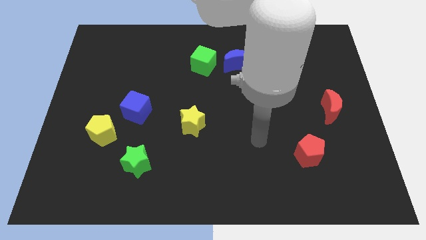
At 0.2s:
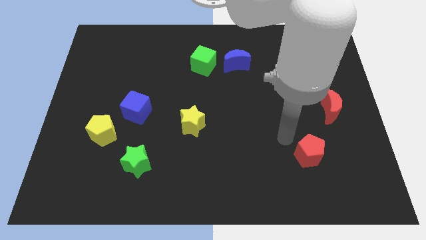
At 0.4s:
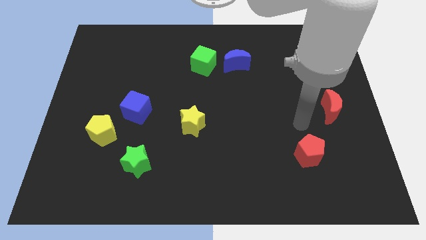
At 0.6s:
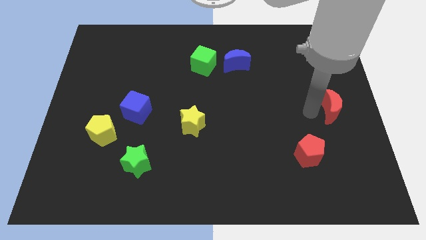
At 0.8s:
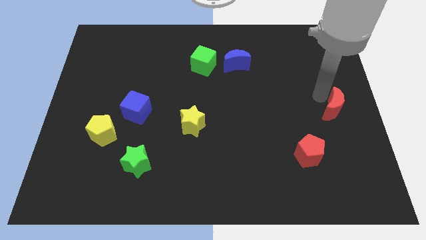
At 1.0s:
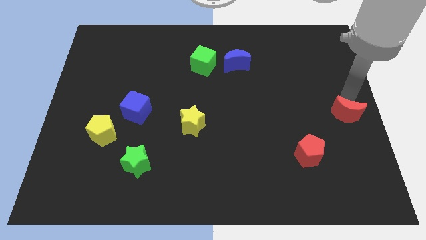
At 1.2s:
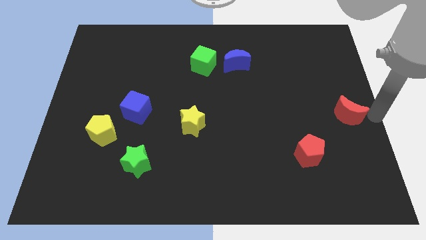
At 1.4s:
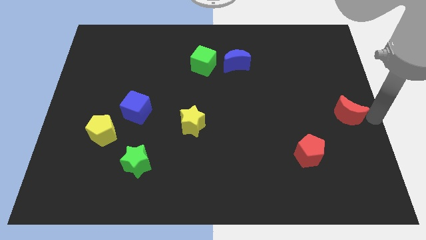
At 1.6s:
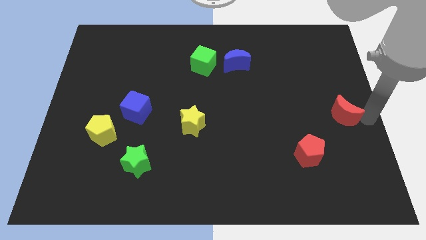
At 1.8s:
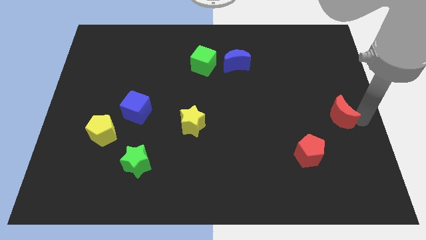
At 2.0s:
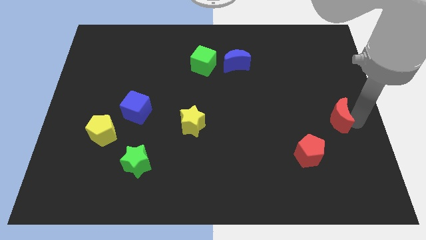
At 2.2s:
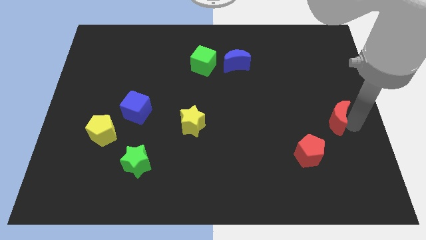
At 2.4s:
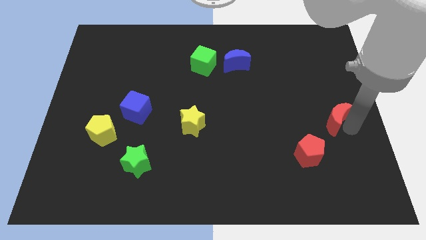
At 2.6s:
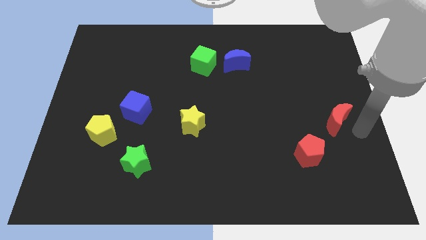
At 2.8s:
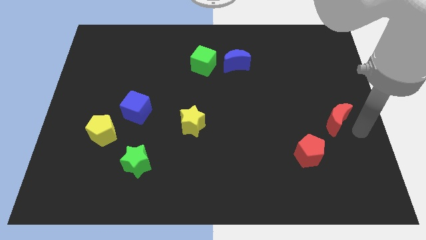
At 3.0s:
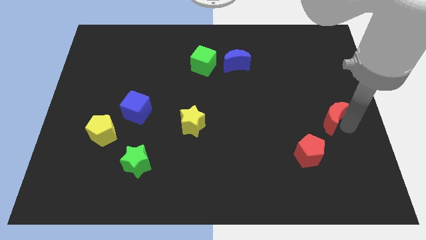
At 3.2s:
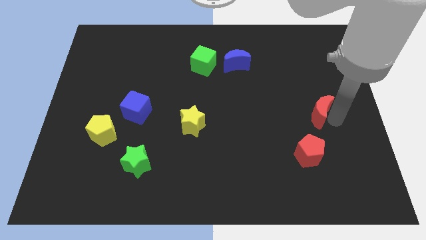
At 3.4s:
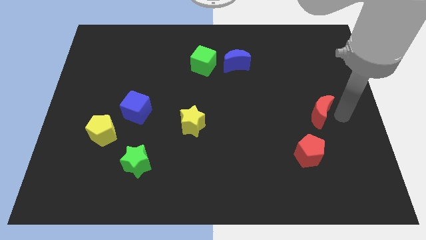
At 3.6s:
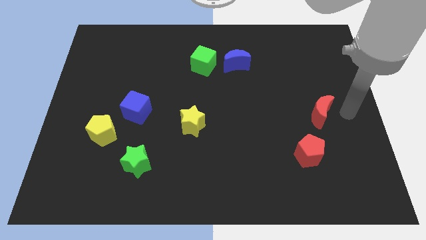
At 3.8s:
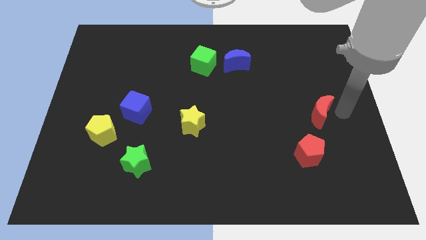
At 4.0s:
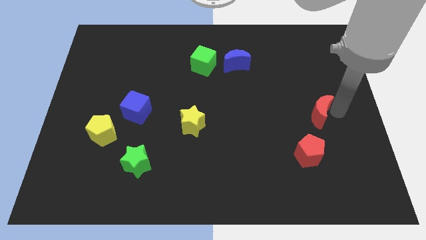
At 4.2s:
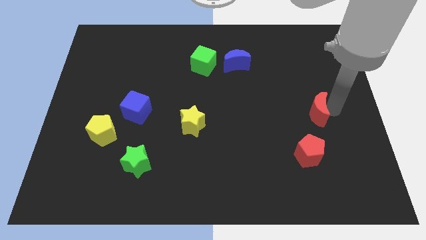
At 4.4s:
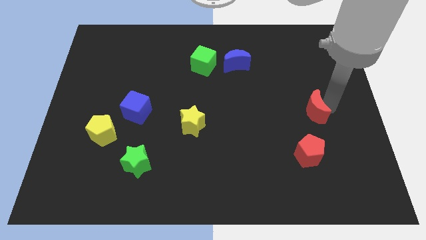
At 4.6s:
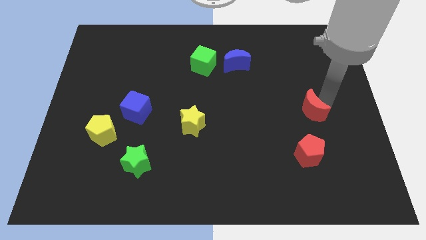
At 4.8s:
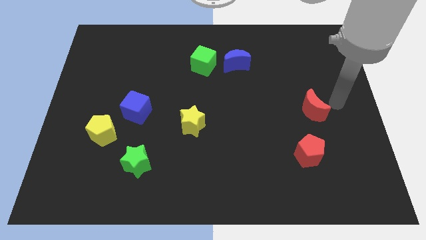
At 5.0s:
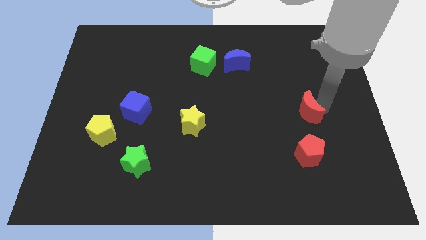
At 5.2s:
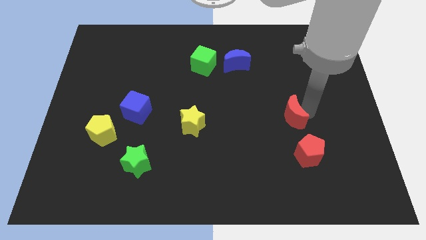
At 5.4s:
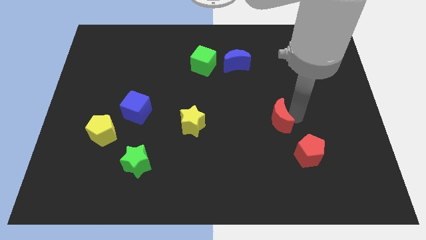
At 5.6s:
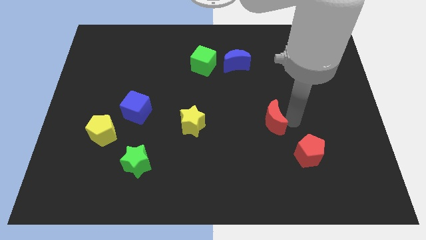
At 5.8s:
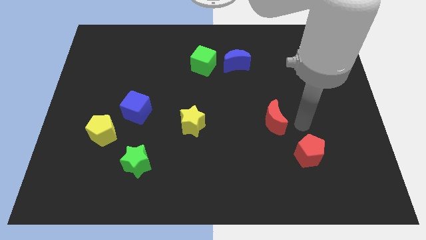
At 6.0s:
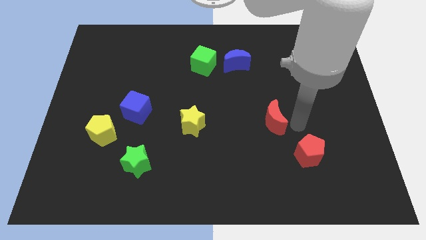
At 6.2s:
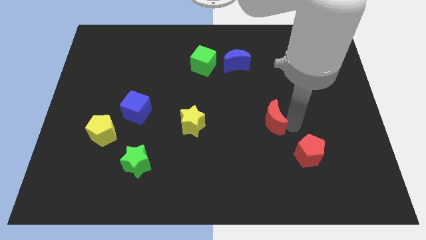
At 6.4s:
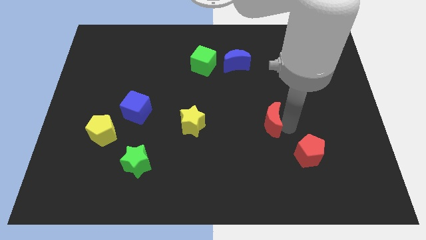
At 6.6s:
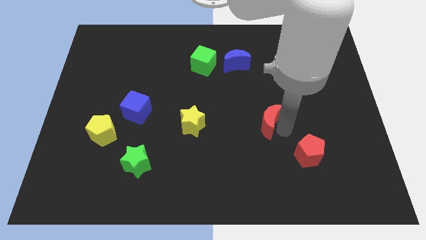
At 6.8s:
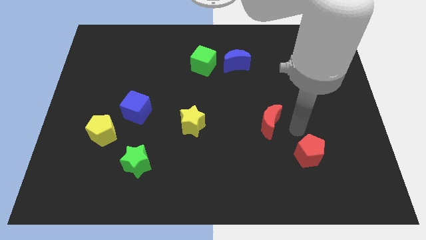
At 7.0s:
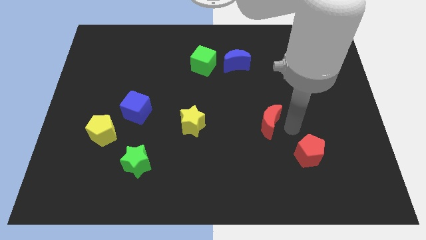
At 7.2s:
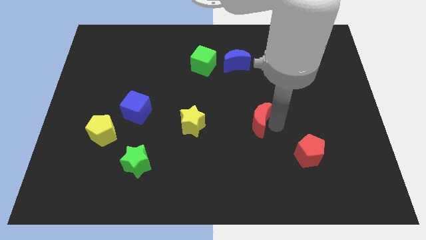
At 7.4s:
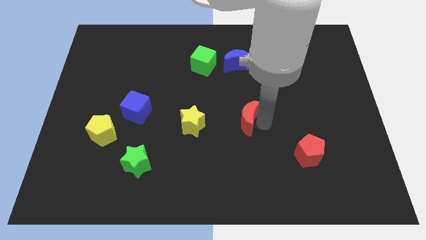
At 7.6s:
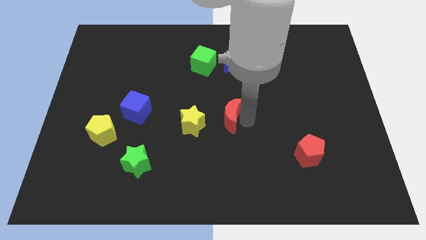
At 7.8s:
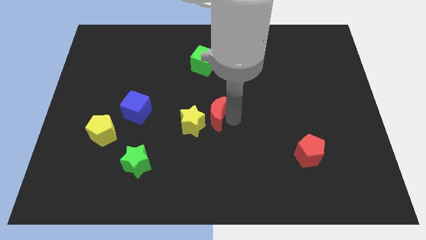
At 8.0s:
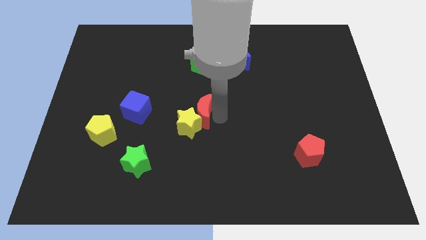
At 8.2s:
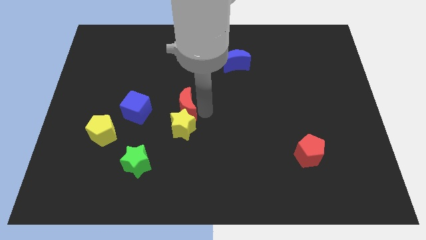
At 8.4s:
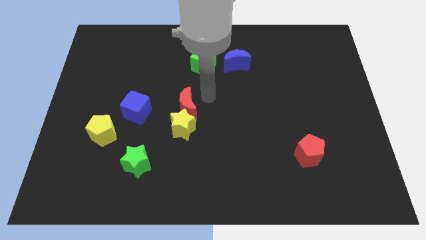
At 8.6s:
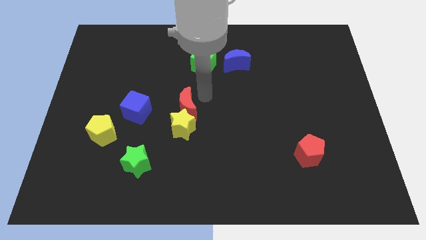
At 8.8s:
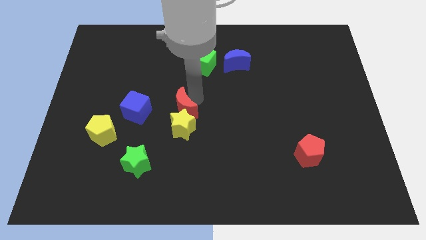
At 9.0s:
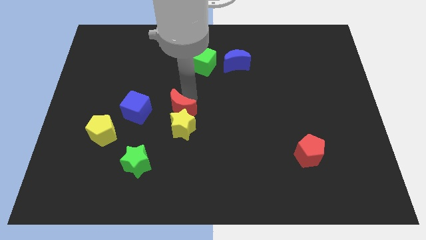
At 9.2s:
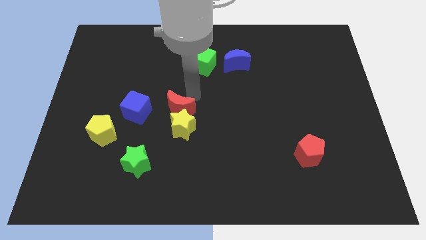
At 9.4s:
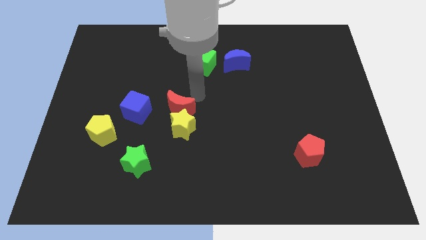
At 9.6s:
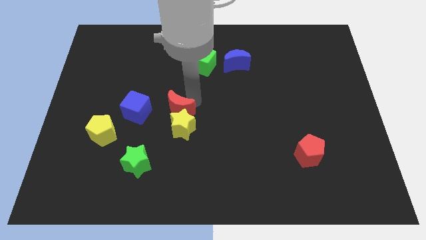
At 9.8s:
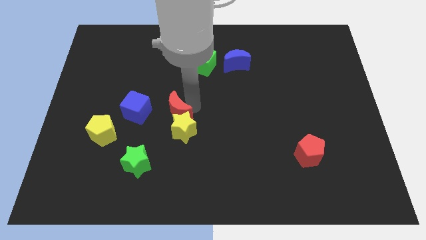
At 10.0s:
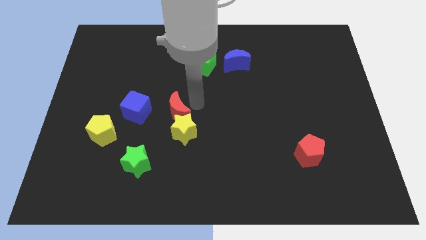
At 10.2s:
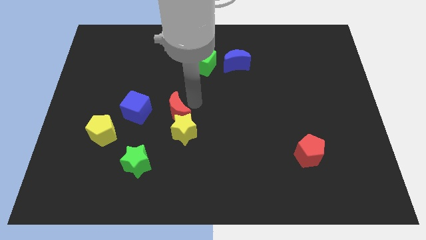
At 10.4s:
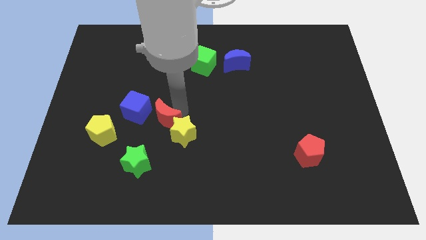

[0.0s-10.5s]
move the red moon to the right of the yellow pentagon

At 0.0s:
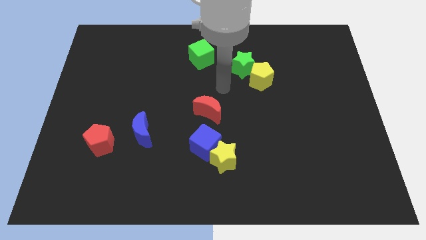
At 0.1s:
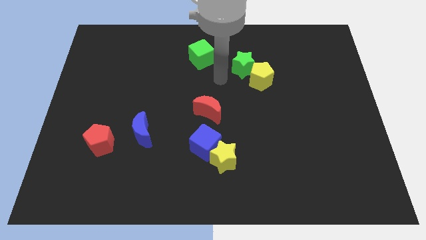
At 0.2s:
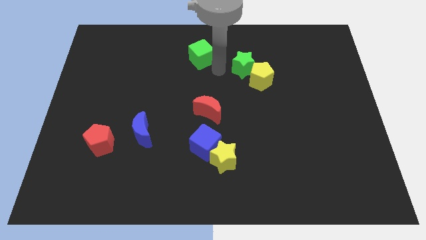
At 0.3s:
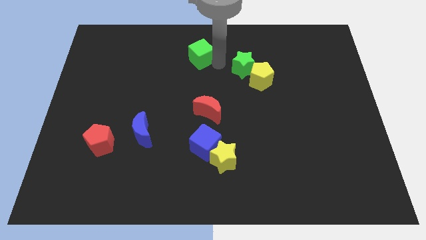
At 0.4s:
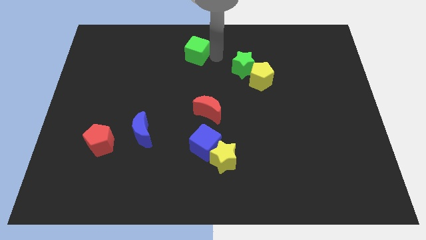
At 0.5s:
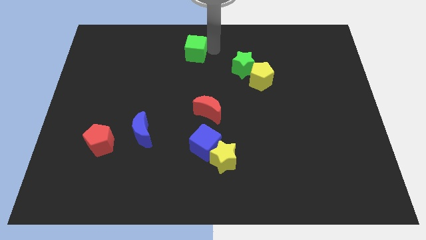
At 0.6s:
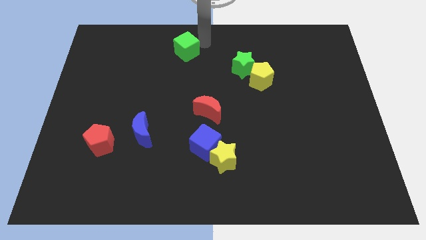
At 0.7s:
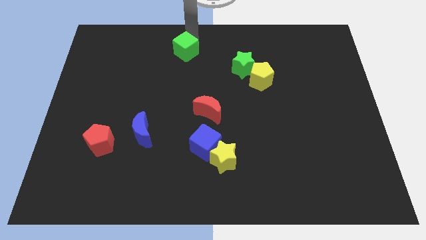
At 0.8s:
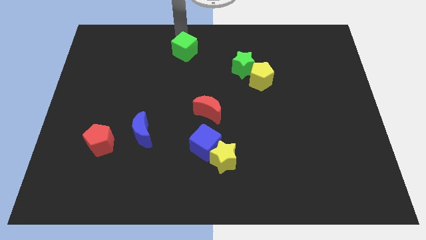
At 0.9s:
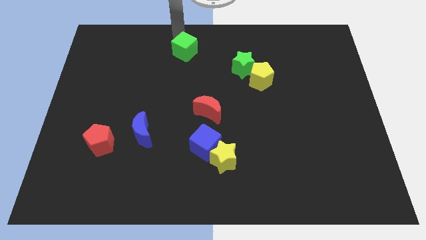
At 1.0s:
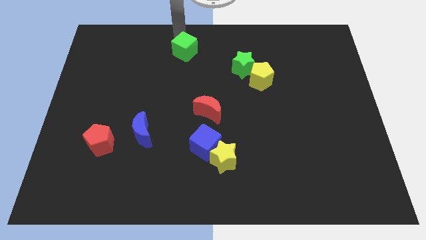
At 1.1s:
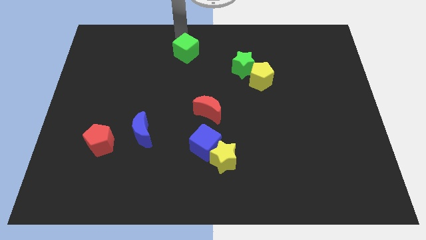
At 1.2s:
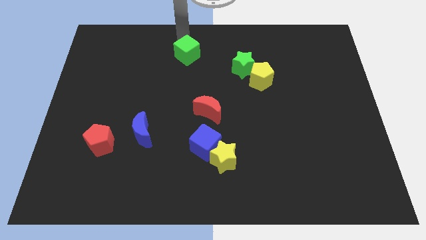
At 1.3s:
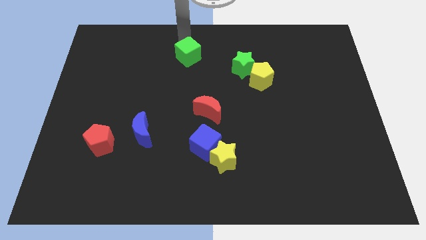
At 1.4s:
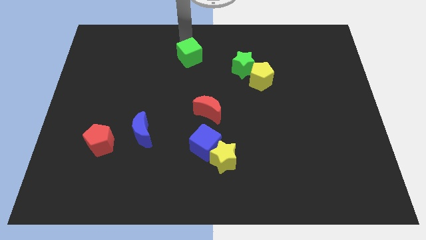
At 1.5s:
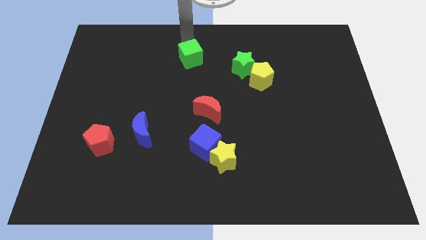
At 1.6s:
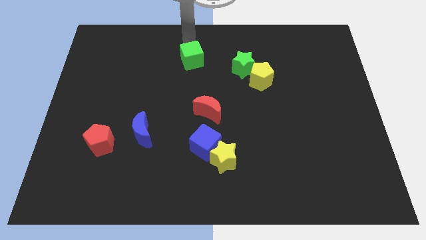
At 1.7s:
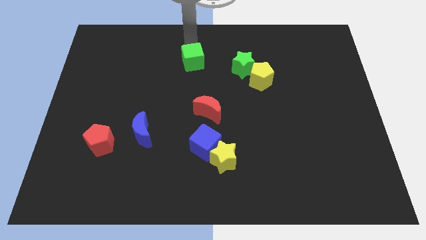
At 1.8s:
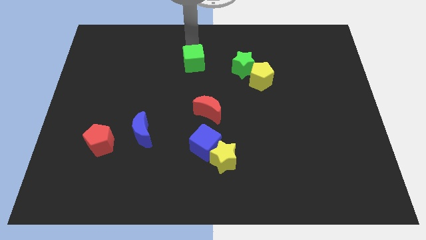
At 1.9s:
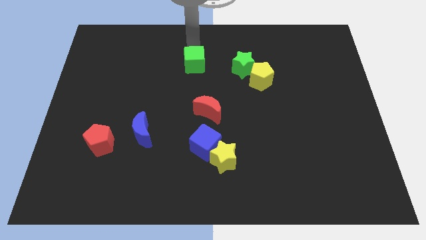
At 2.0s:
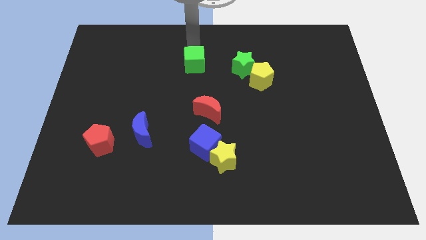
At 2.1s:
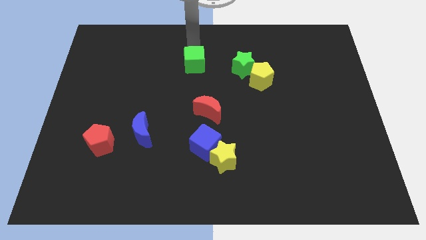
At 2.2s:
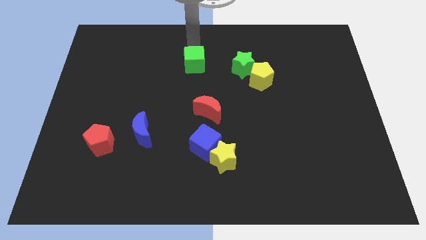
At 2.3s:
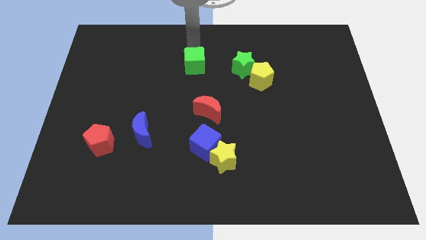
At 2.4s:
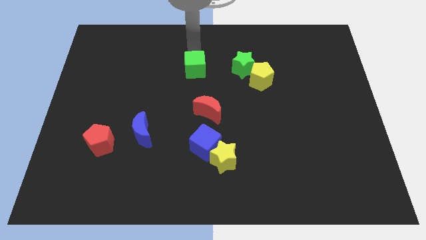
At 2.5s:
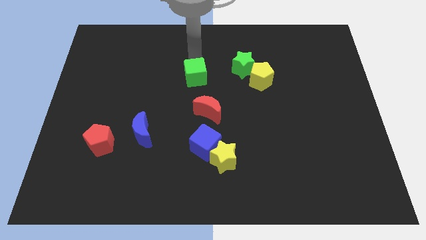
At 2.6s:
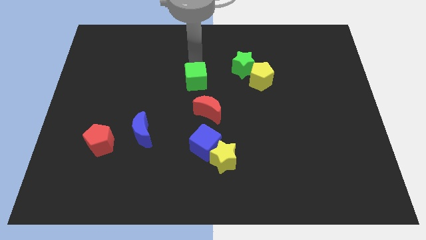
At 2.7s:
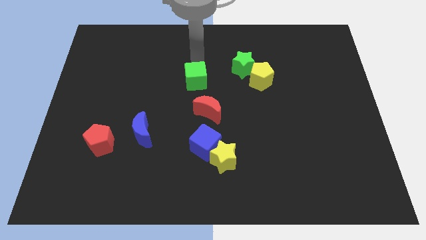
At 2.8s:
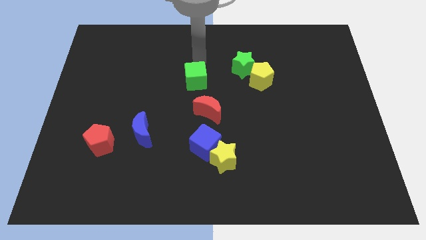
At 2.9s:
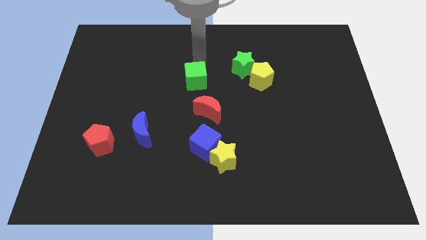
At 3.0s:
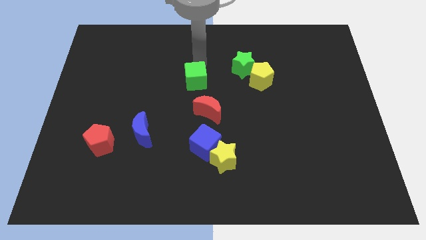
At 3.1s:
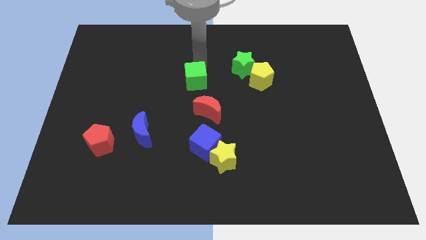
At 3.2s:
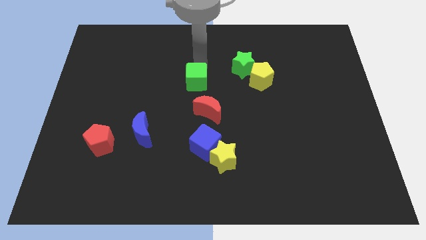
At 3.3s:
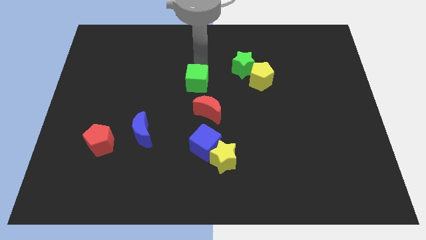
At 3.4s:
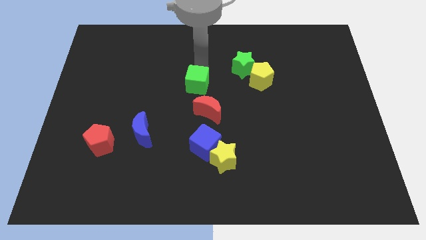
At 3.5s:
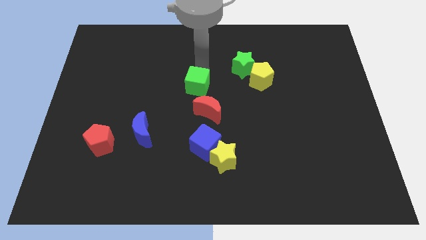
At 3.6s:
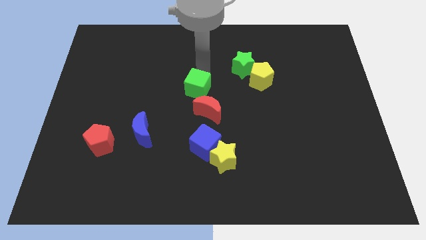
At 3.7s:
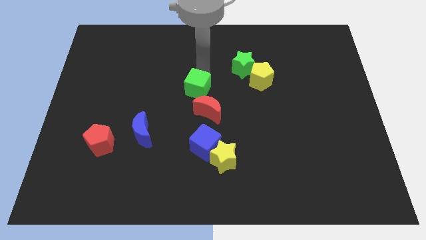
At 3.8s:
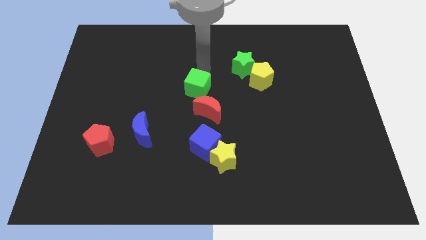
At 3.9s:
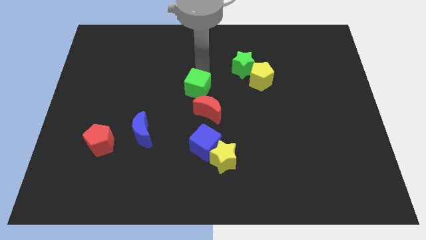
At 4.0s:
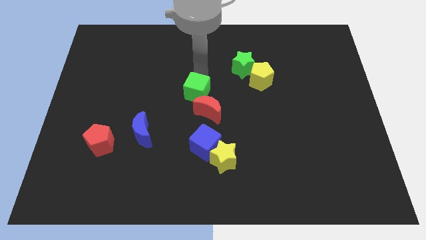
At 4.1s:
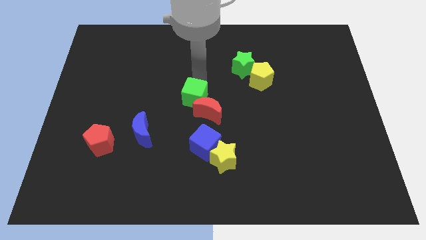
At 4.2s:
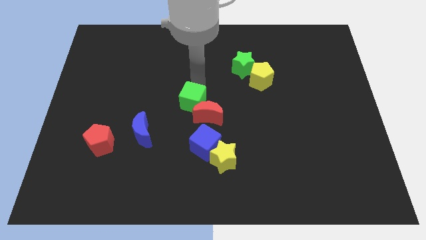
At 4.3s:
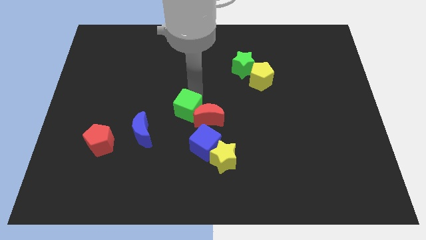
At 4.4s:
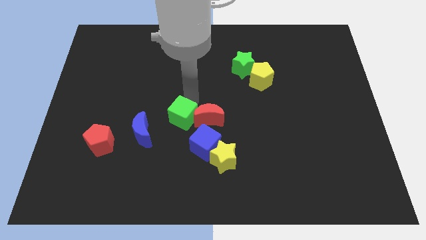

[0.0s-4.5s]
put the green cube to the bottom left of the red moon
